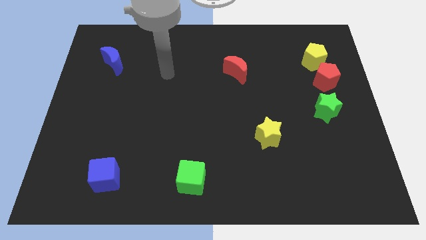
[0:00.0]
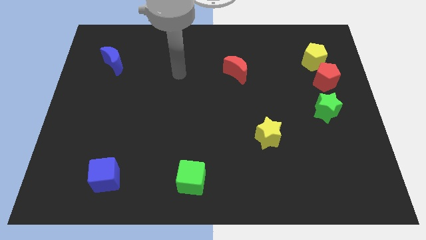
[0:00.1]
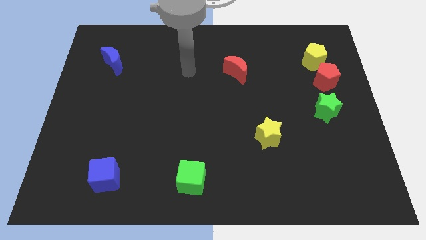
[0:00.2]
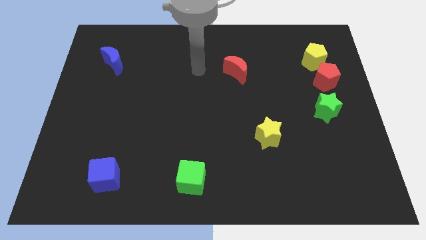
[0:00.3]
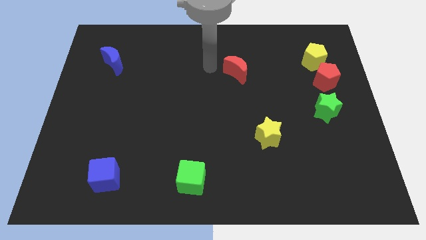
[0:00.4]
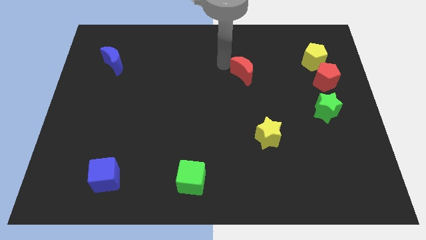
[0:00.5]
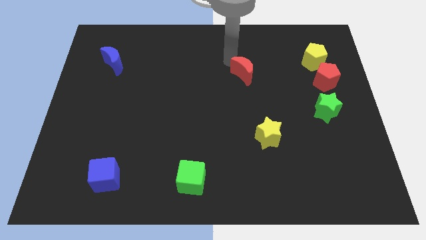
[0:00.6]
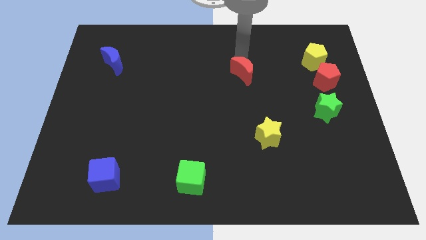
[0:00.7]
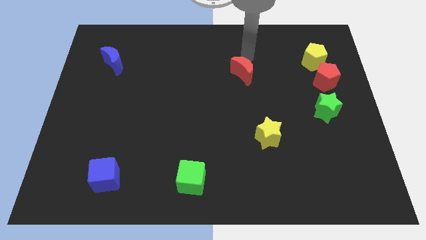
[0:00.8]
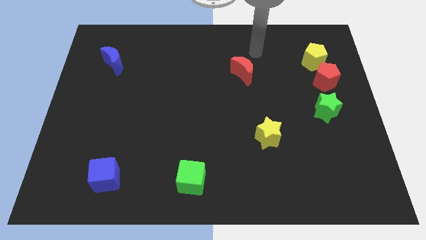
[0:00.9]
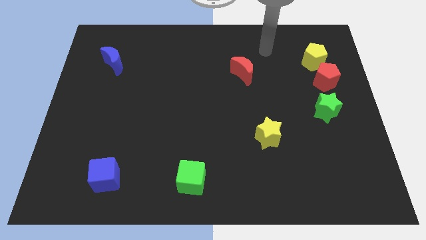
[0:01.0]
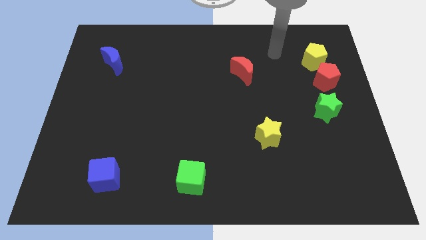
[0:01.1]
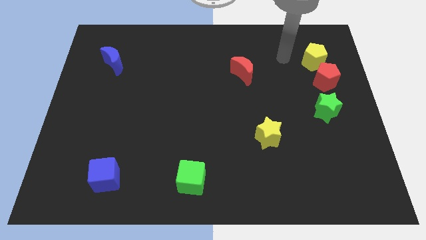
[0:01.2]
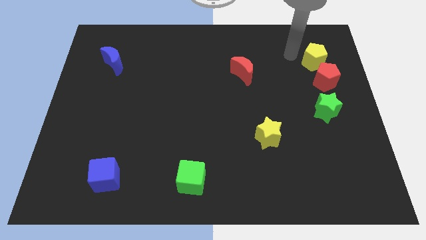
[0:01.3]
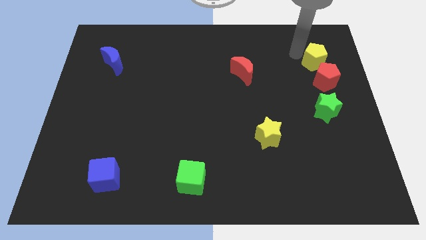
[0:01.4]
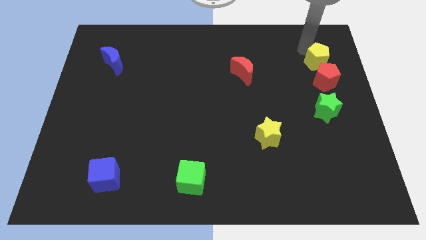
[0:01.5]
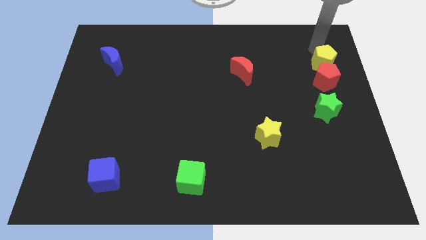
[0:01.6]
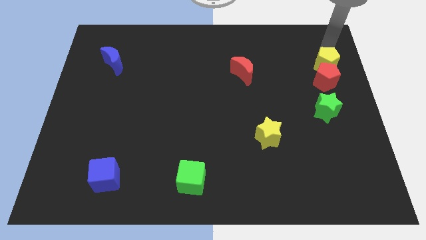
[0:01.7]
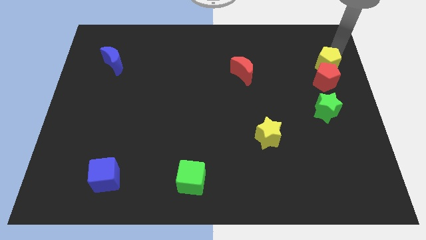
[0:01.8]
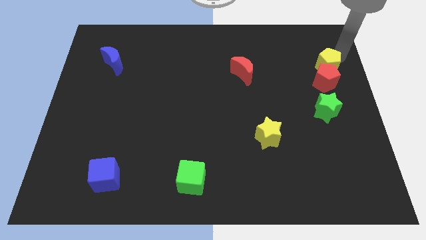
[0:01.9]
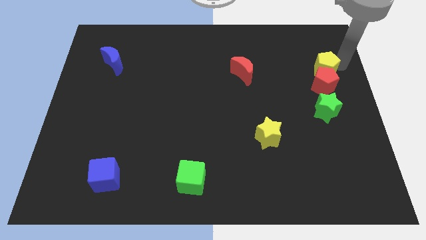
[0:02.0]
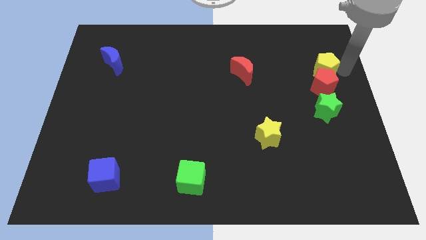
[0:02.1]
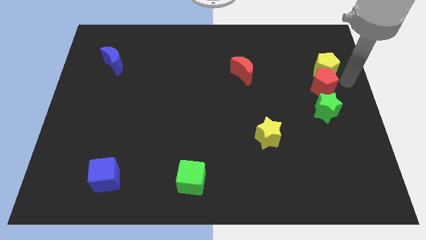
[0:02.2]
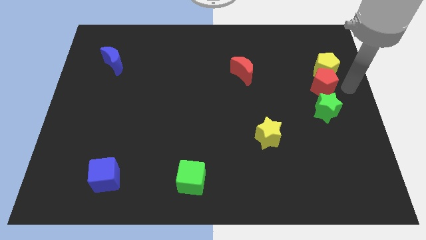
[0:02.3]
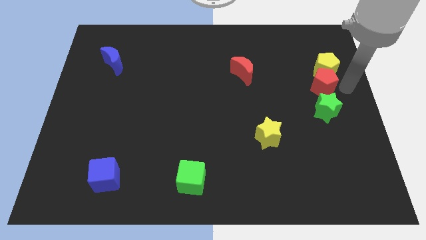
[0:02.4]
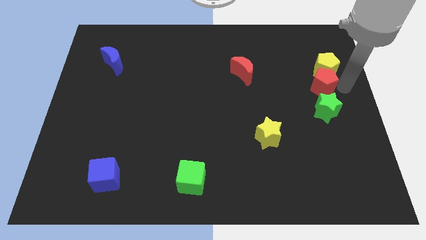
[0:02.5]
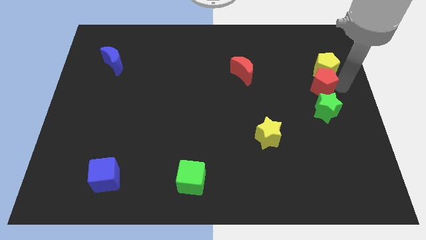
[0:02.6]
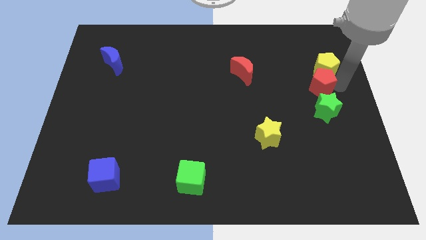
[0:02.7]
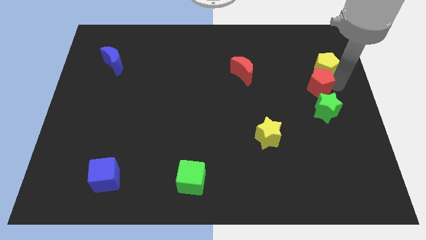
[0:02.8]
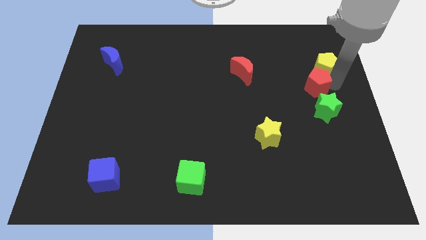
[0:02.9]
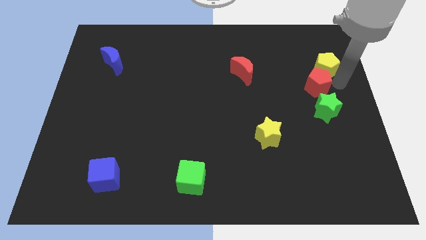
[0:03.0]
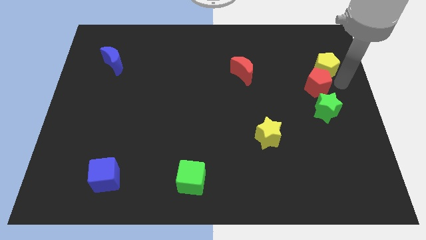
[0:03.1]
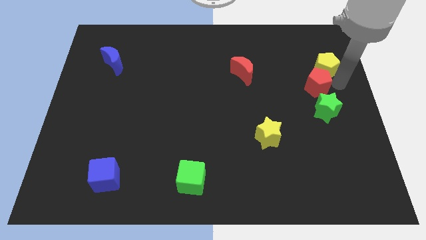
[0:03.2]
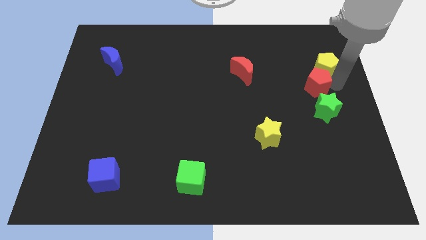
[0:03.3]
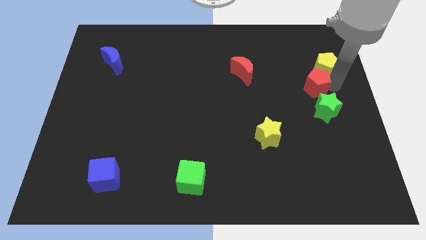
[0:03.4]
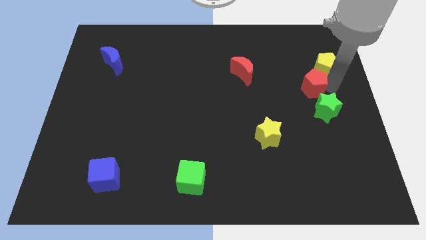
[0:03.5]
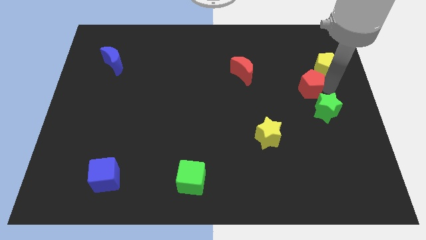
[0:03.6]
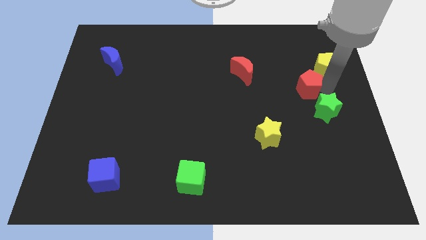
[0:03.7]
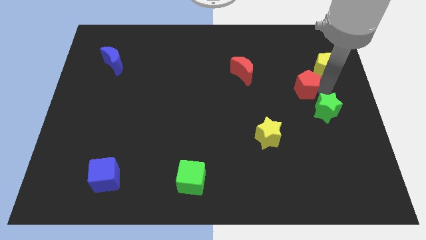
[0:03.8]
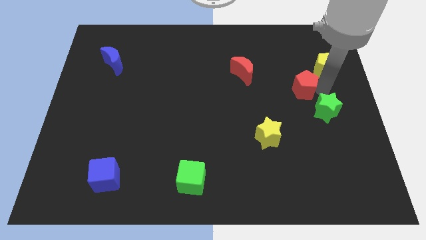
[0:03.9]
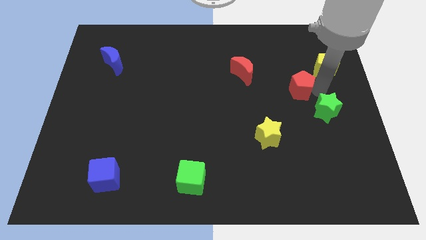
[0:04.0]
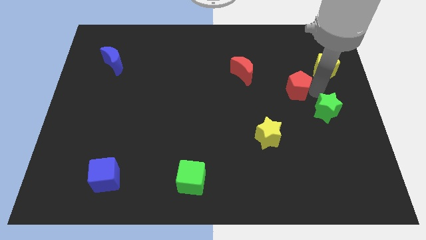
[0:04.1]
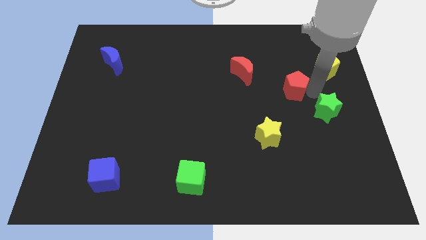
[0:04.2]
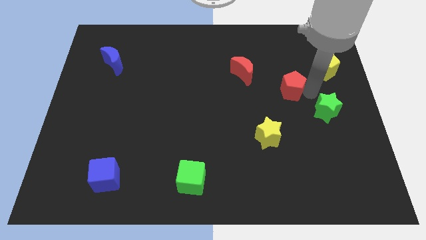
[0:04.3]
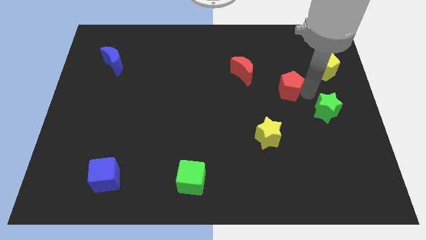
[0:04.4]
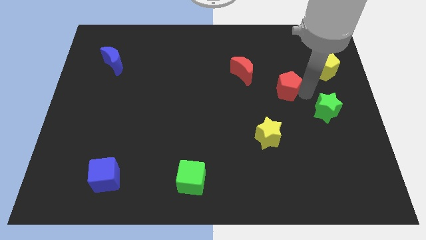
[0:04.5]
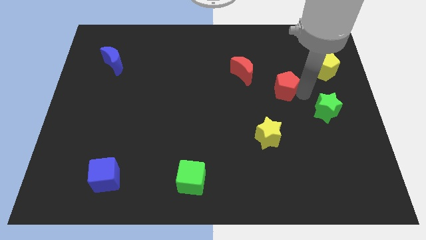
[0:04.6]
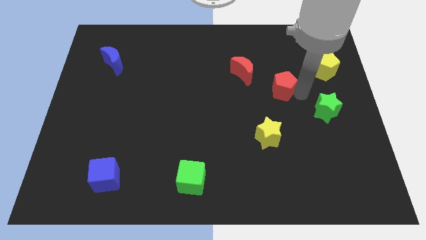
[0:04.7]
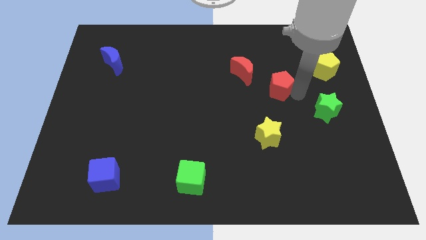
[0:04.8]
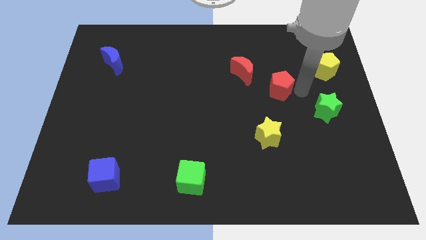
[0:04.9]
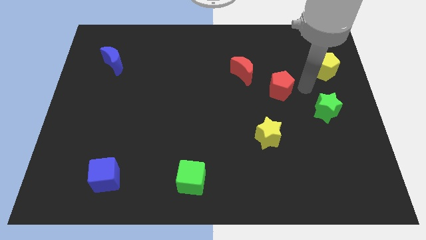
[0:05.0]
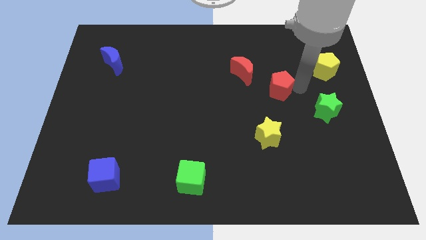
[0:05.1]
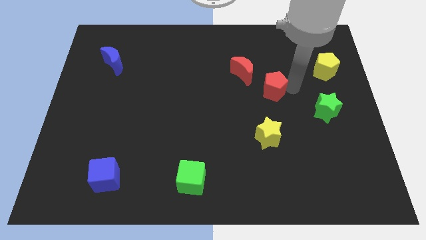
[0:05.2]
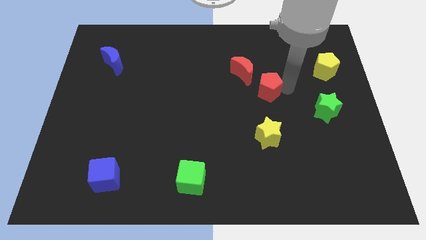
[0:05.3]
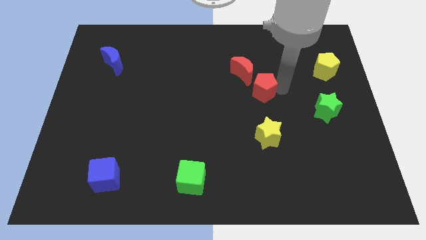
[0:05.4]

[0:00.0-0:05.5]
put the red pentagon to the center of the board
